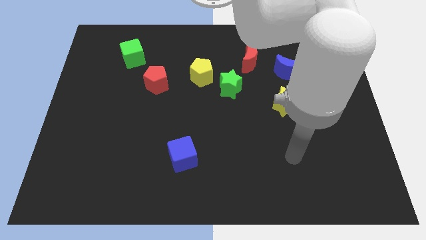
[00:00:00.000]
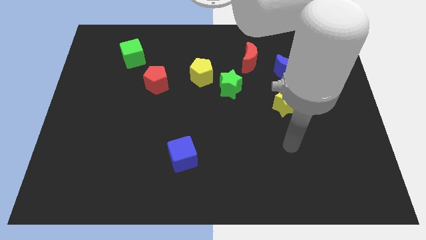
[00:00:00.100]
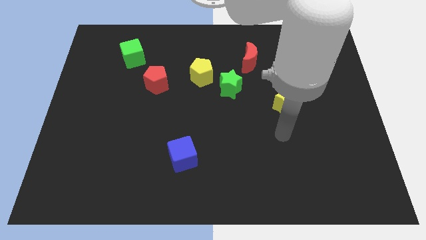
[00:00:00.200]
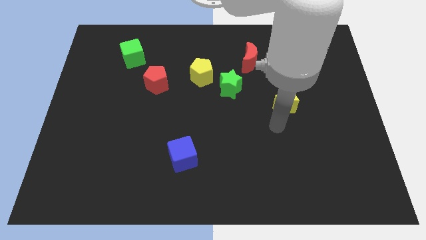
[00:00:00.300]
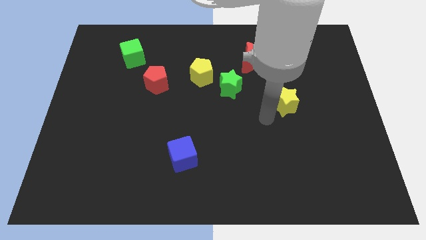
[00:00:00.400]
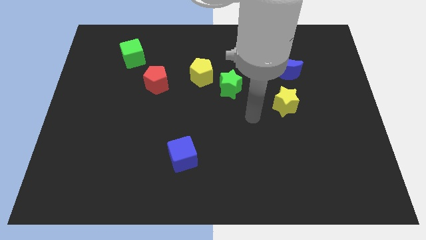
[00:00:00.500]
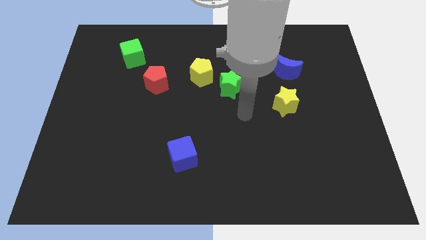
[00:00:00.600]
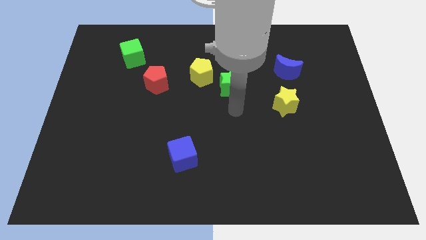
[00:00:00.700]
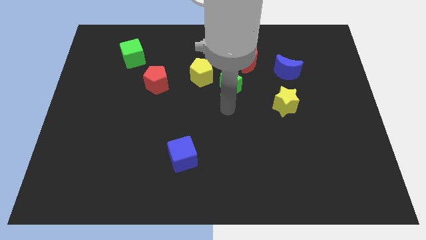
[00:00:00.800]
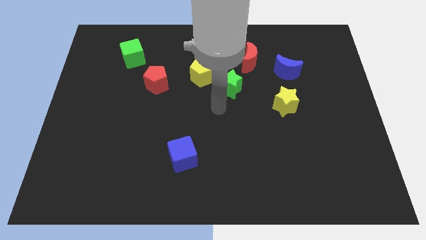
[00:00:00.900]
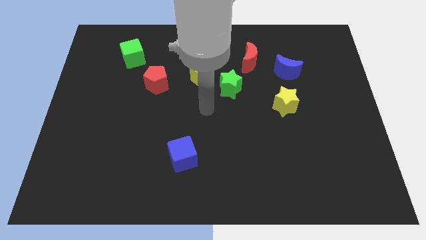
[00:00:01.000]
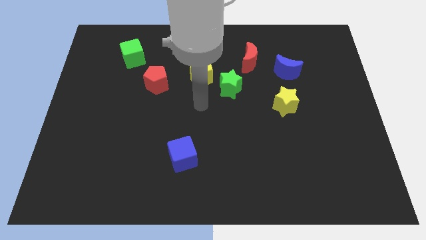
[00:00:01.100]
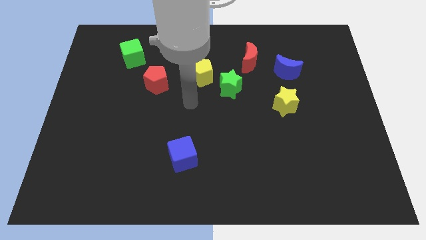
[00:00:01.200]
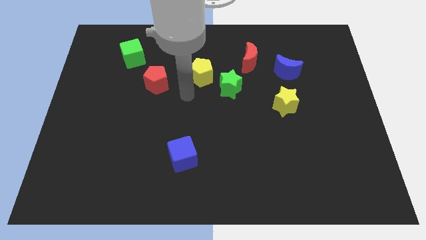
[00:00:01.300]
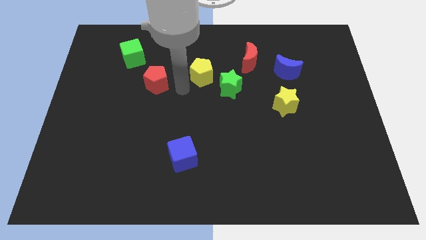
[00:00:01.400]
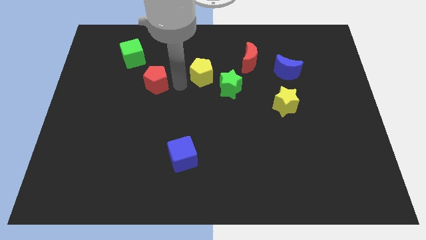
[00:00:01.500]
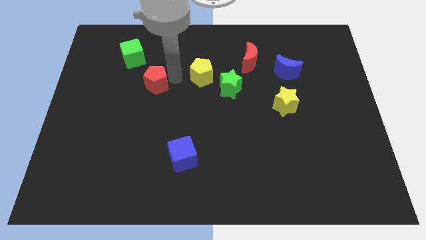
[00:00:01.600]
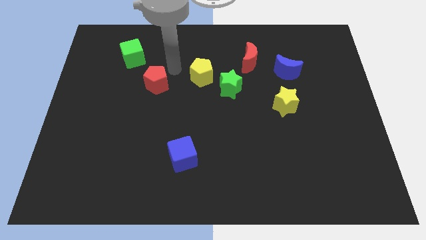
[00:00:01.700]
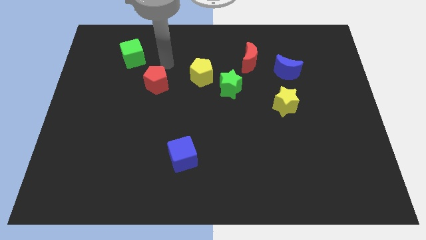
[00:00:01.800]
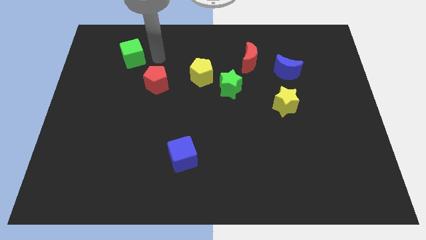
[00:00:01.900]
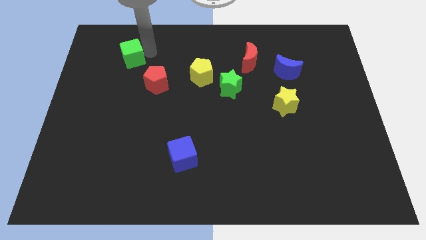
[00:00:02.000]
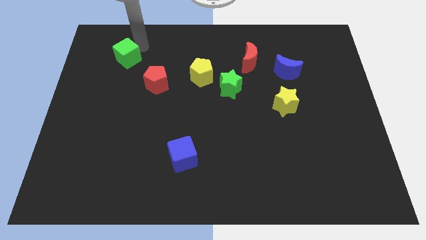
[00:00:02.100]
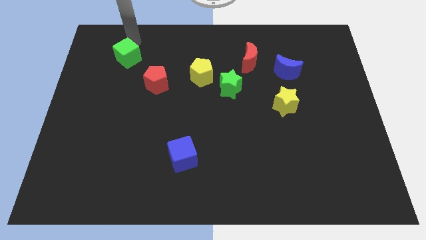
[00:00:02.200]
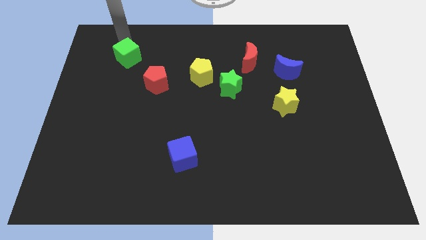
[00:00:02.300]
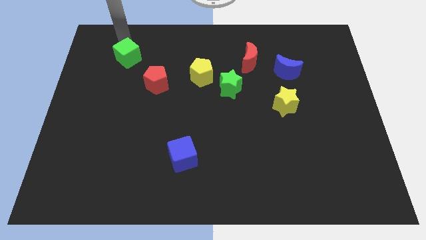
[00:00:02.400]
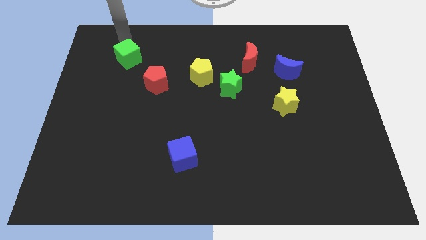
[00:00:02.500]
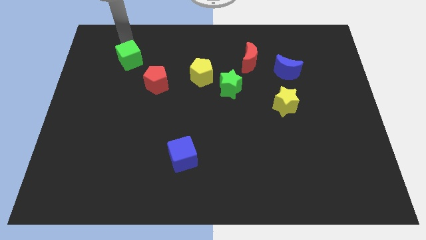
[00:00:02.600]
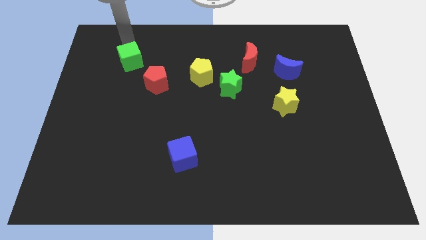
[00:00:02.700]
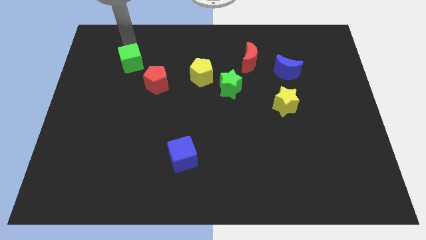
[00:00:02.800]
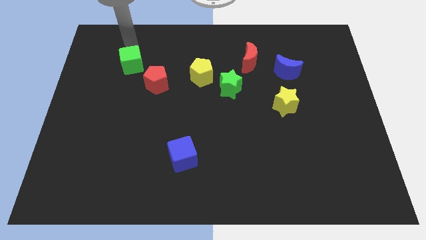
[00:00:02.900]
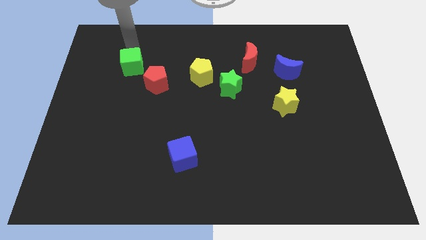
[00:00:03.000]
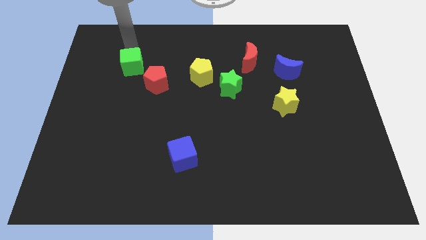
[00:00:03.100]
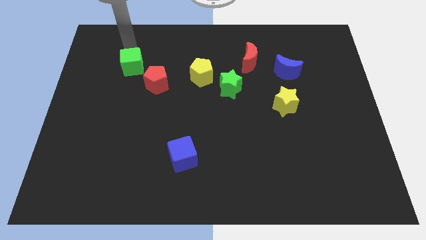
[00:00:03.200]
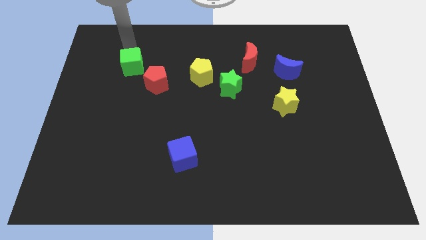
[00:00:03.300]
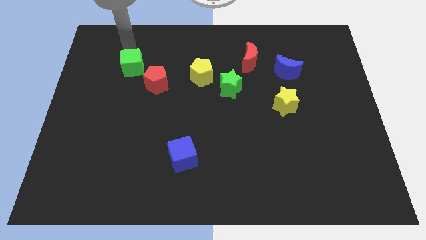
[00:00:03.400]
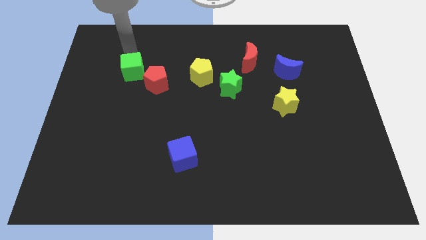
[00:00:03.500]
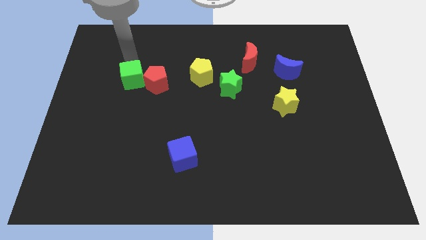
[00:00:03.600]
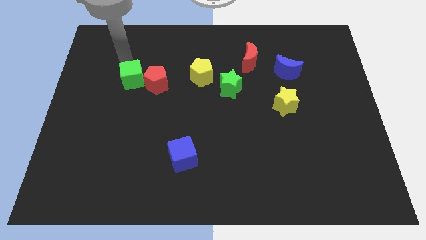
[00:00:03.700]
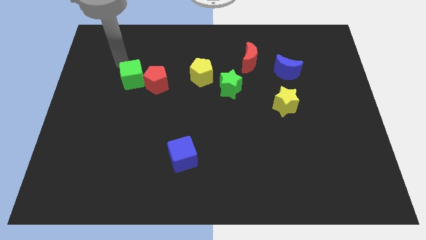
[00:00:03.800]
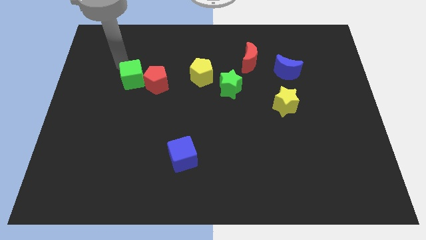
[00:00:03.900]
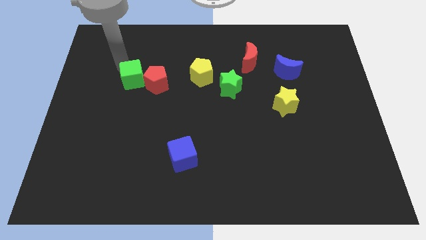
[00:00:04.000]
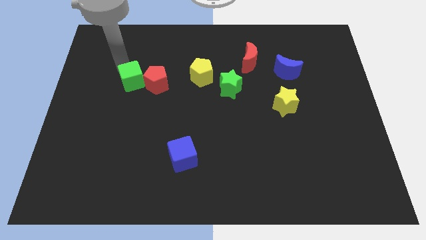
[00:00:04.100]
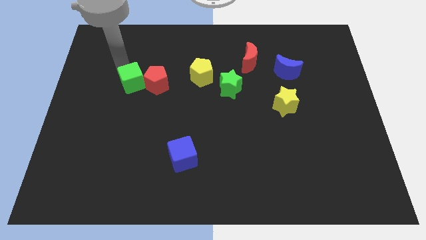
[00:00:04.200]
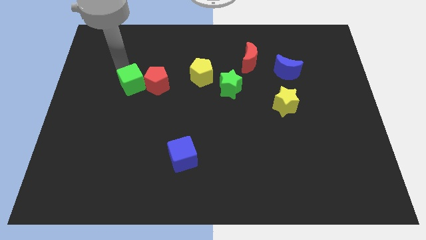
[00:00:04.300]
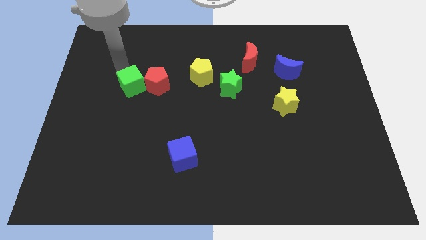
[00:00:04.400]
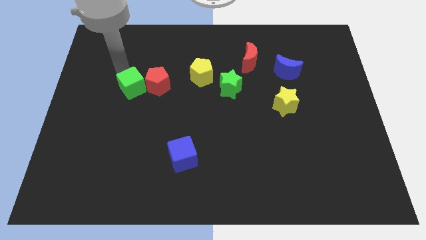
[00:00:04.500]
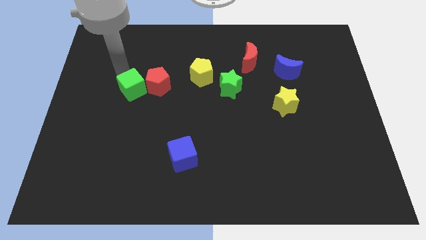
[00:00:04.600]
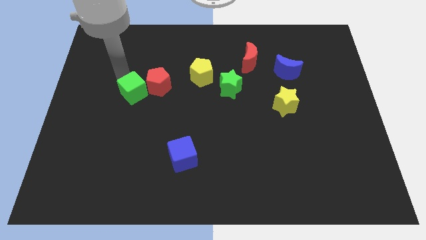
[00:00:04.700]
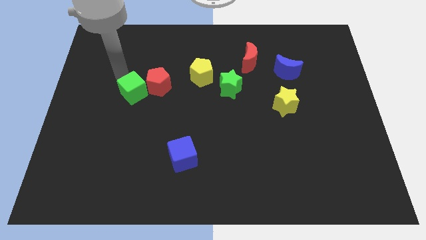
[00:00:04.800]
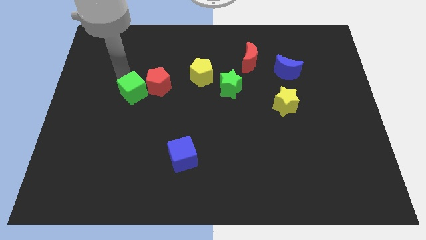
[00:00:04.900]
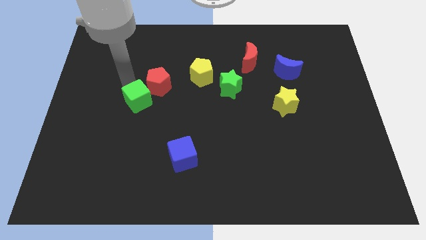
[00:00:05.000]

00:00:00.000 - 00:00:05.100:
slide the green cube to the bottom side of the red pentagon

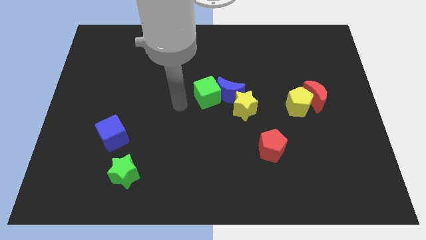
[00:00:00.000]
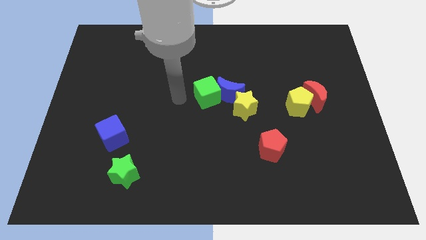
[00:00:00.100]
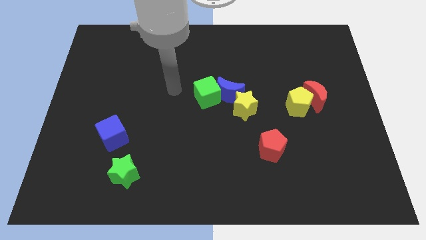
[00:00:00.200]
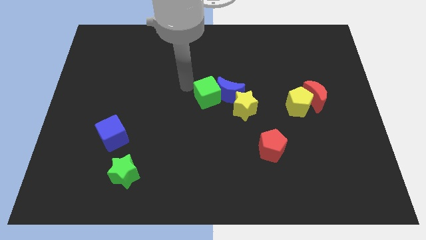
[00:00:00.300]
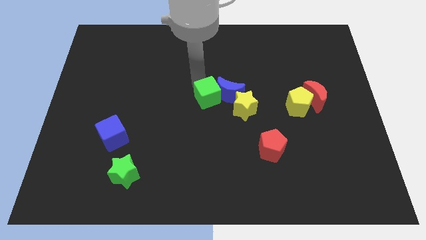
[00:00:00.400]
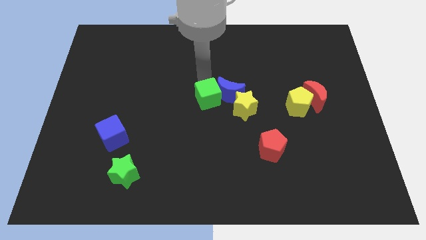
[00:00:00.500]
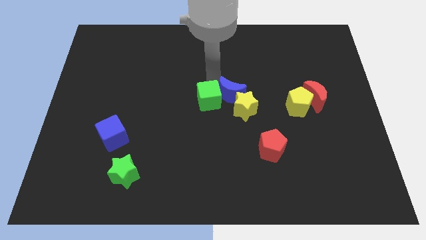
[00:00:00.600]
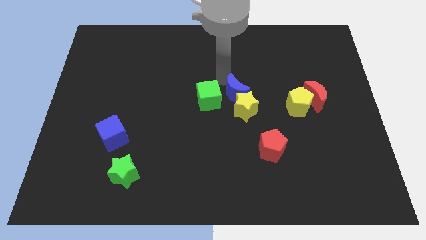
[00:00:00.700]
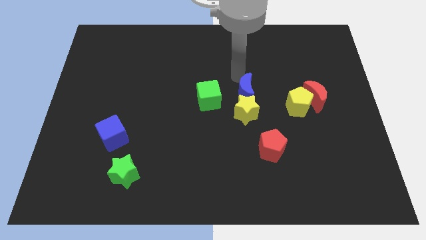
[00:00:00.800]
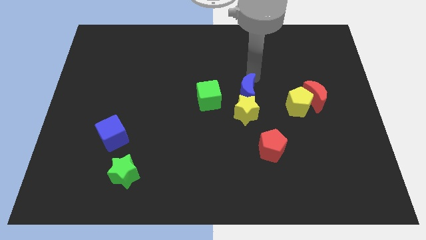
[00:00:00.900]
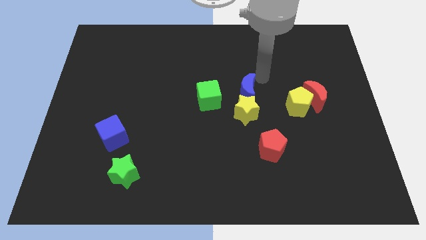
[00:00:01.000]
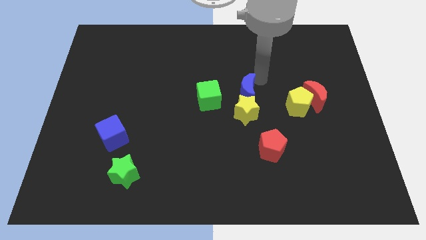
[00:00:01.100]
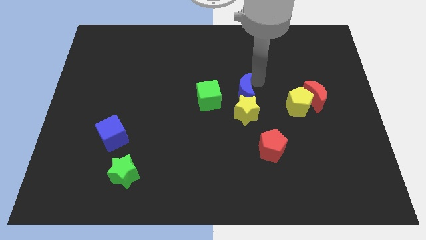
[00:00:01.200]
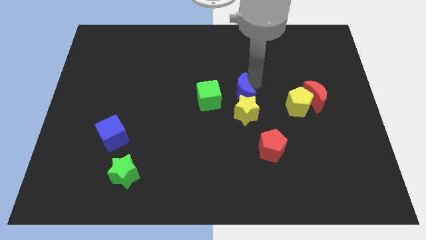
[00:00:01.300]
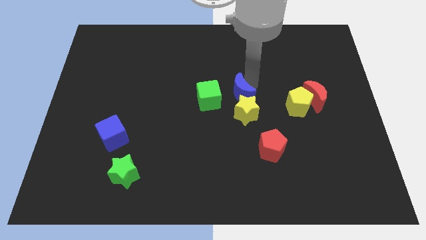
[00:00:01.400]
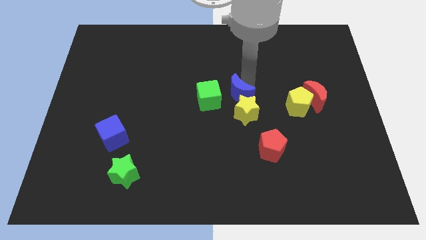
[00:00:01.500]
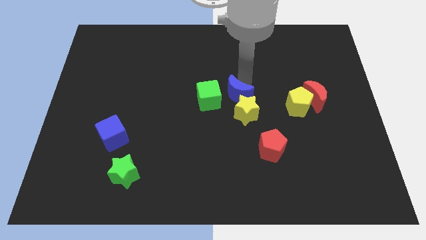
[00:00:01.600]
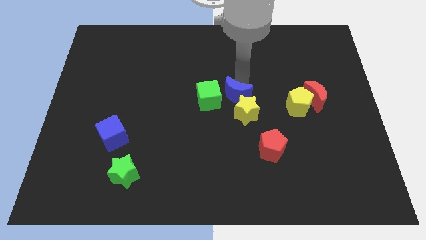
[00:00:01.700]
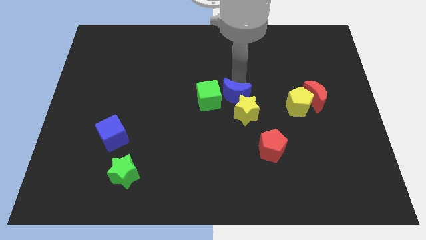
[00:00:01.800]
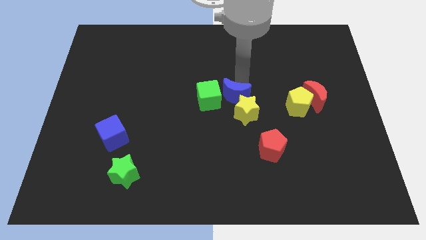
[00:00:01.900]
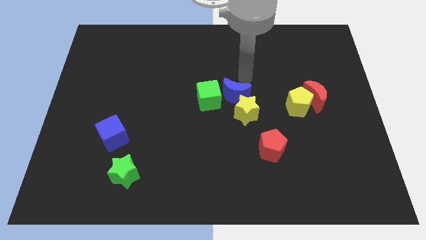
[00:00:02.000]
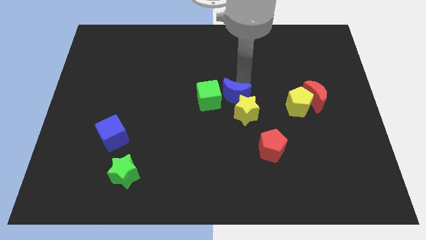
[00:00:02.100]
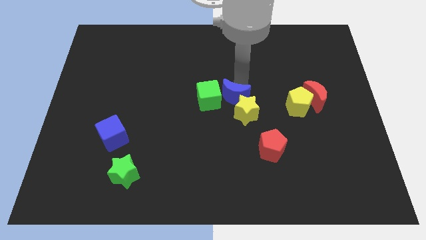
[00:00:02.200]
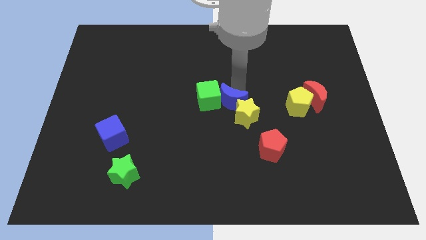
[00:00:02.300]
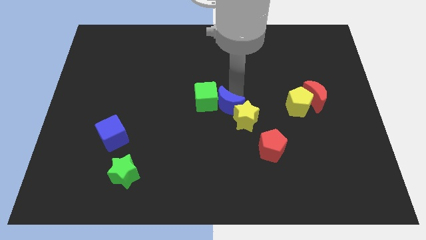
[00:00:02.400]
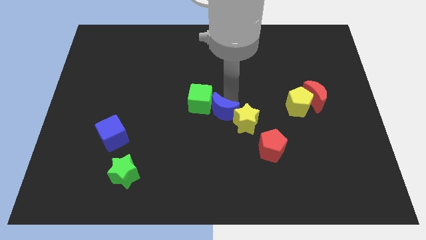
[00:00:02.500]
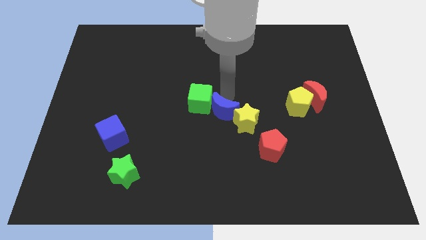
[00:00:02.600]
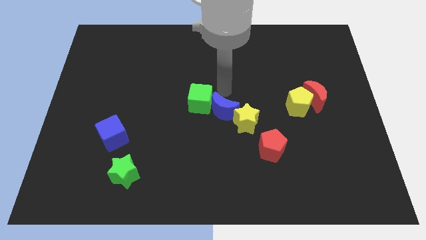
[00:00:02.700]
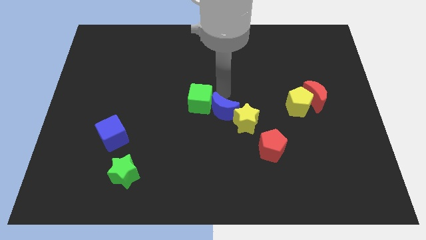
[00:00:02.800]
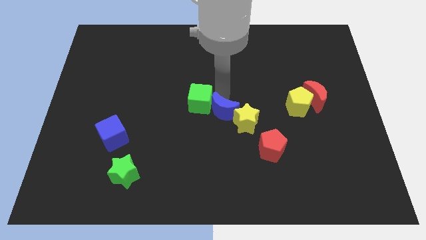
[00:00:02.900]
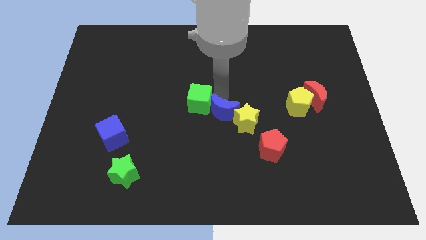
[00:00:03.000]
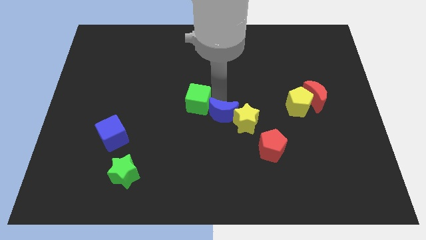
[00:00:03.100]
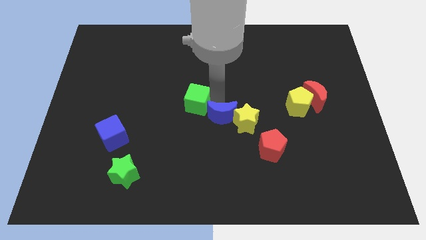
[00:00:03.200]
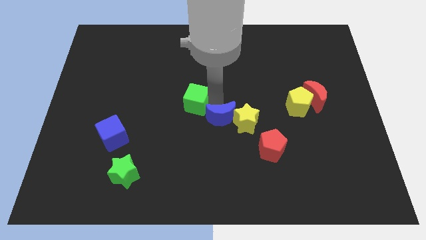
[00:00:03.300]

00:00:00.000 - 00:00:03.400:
slide the blue moon to the bottom left side of the yellow star
